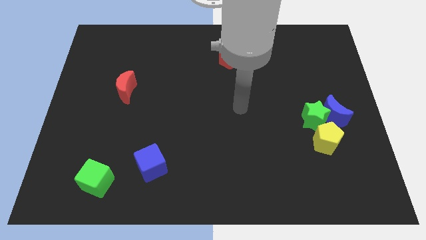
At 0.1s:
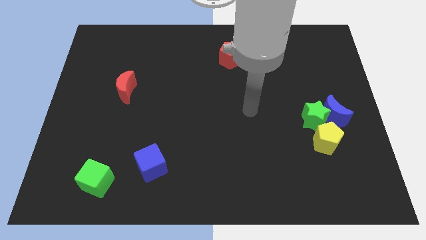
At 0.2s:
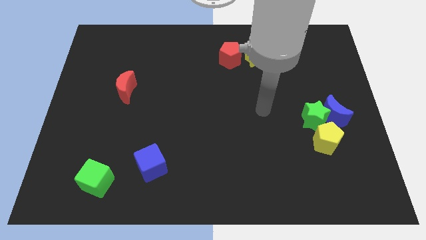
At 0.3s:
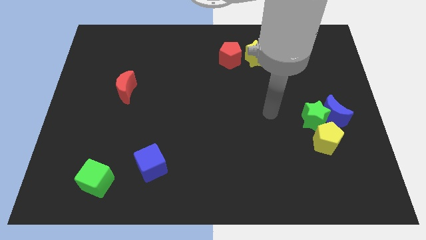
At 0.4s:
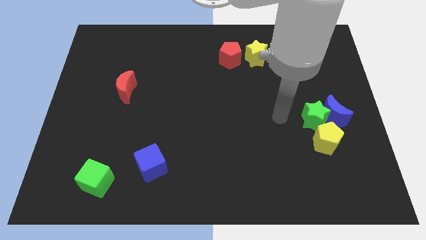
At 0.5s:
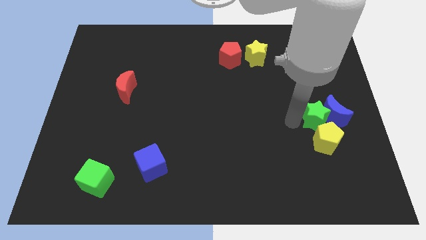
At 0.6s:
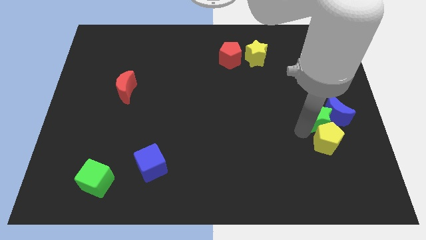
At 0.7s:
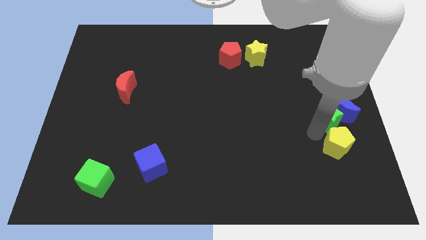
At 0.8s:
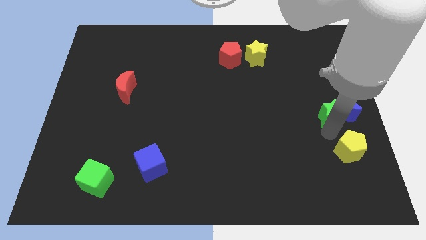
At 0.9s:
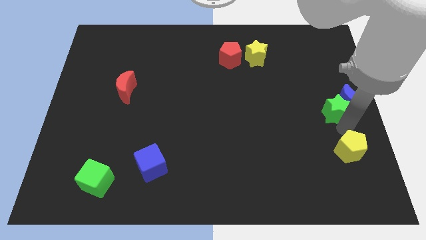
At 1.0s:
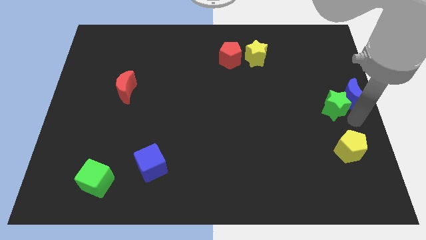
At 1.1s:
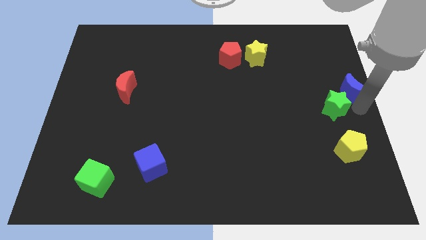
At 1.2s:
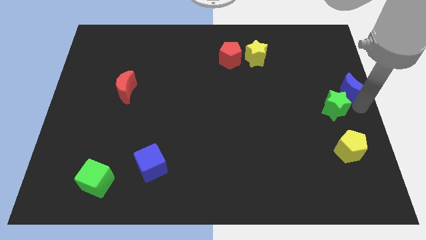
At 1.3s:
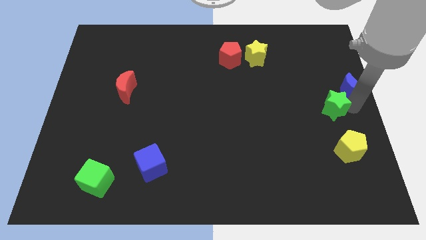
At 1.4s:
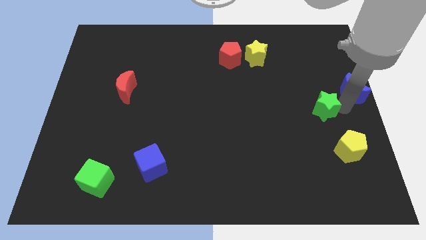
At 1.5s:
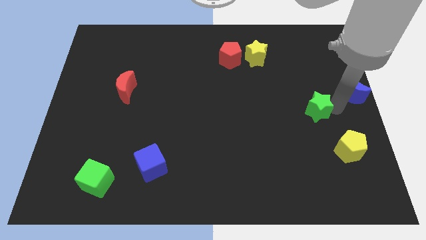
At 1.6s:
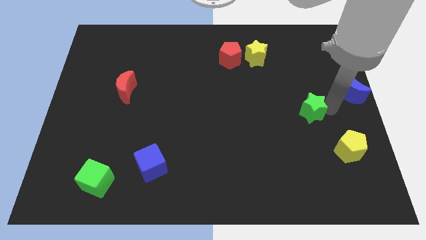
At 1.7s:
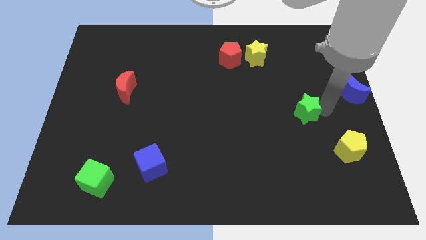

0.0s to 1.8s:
pull the green star apart from the blue moon and yellow pentagon

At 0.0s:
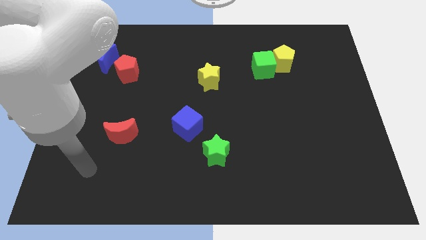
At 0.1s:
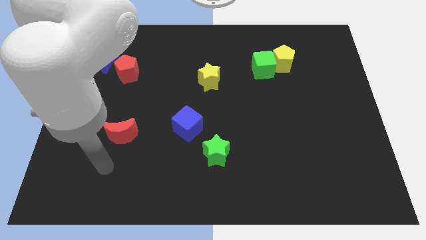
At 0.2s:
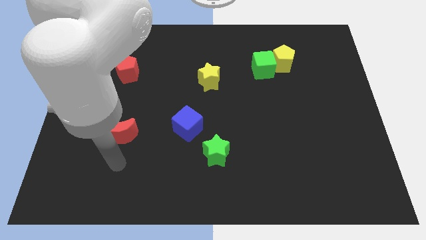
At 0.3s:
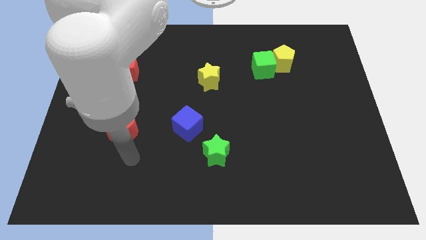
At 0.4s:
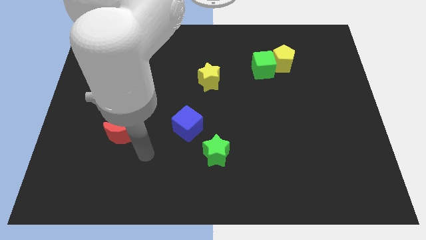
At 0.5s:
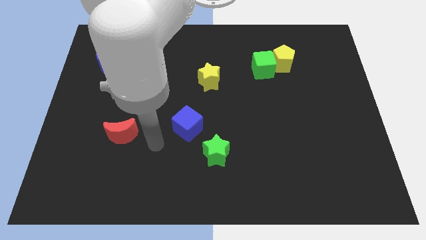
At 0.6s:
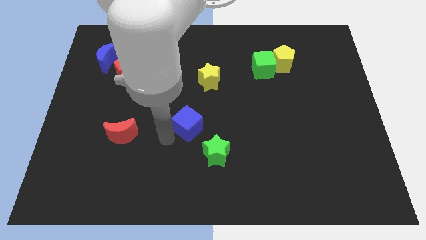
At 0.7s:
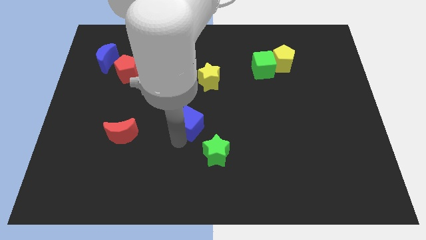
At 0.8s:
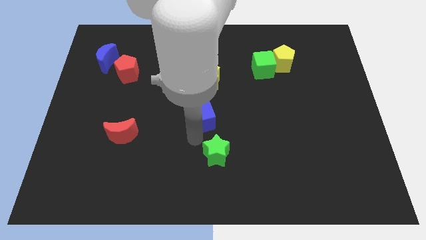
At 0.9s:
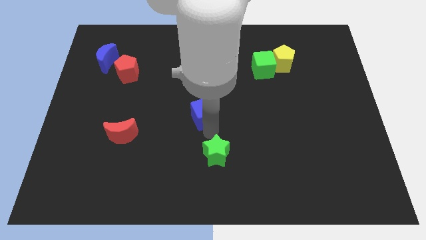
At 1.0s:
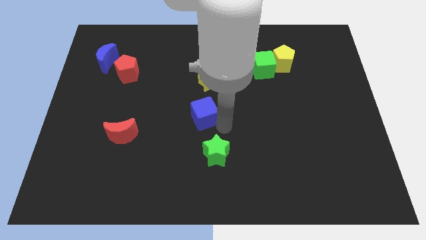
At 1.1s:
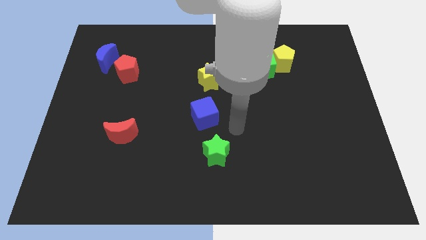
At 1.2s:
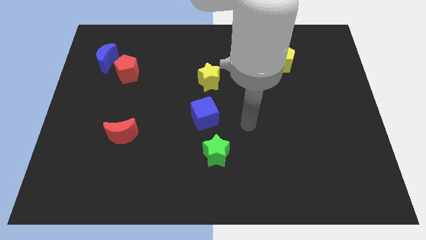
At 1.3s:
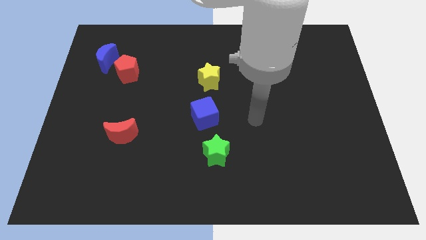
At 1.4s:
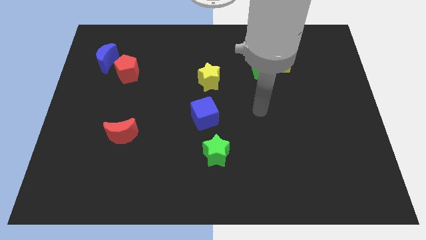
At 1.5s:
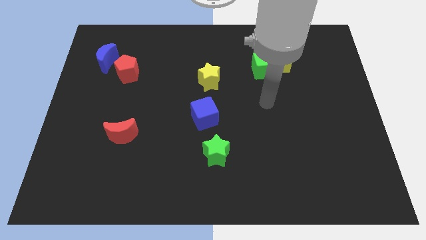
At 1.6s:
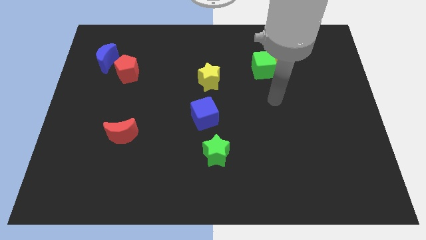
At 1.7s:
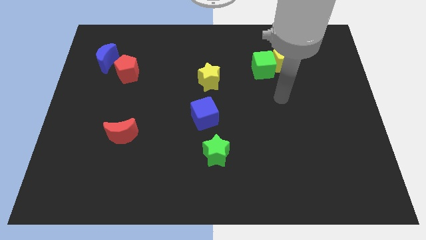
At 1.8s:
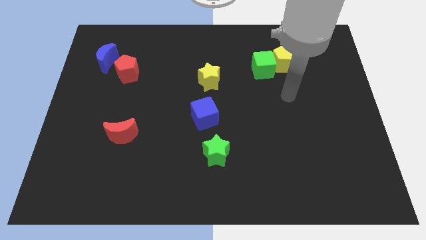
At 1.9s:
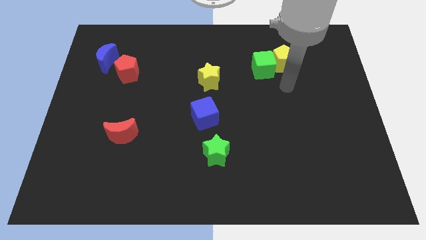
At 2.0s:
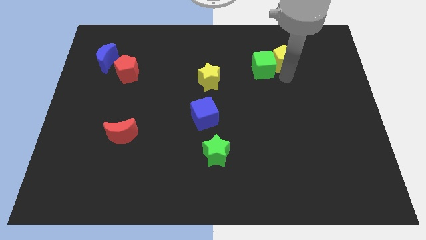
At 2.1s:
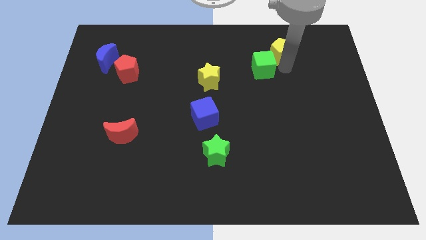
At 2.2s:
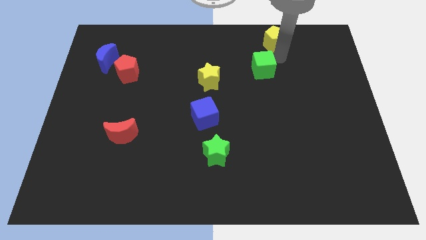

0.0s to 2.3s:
separate the green cube from the yellow pentagon

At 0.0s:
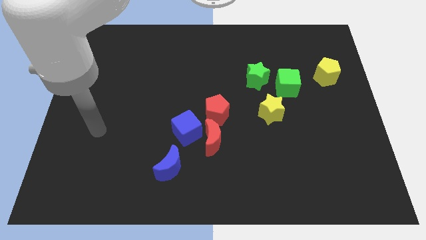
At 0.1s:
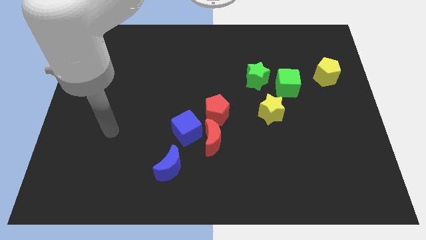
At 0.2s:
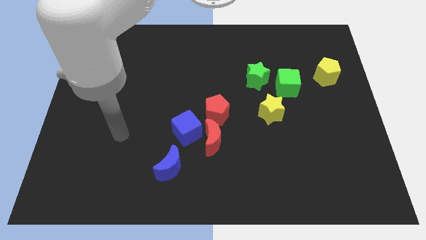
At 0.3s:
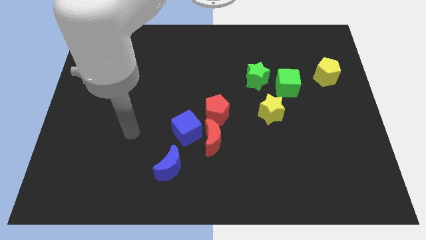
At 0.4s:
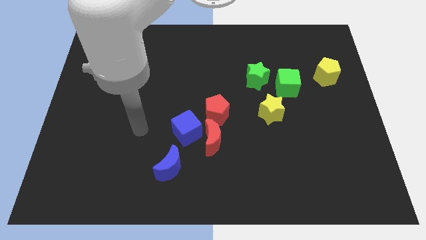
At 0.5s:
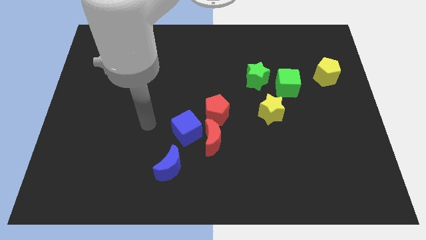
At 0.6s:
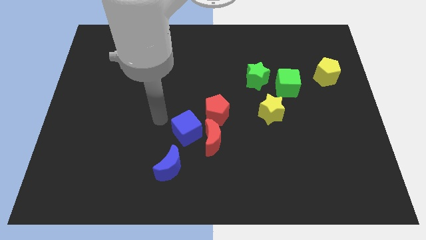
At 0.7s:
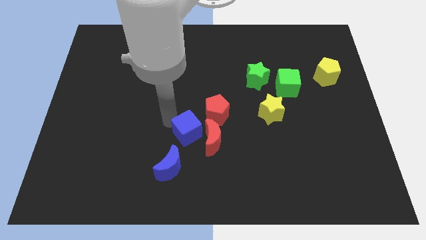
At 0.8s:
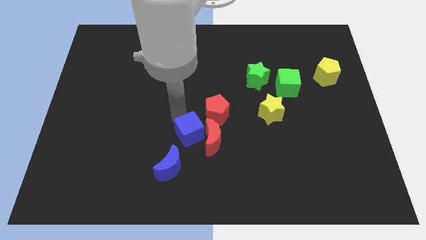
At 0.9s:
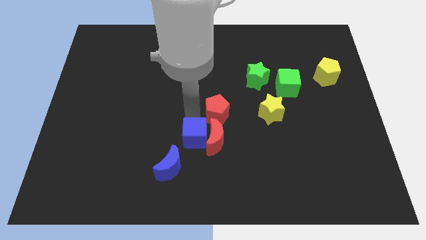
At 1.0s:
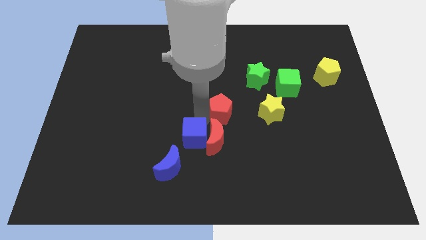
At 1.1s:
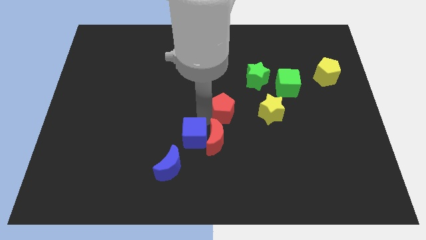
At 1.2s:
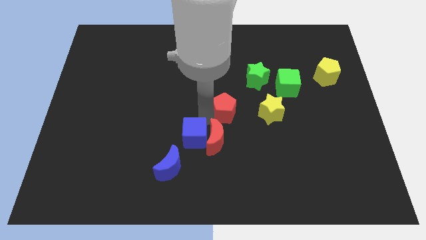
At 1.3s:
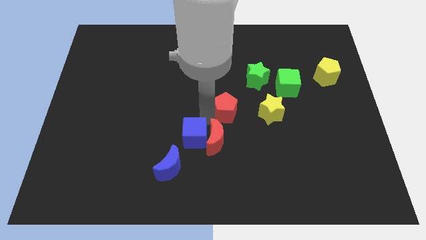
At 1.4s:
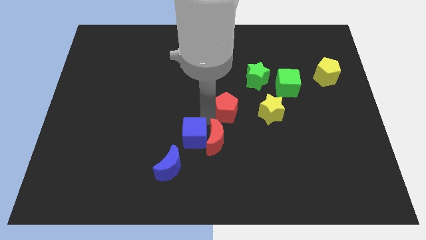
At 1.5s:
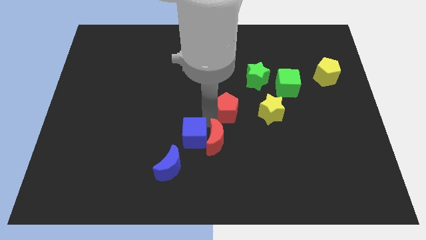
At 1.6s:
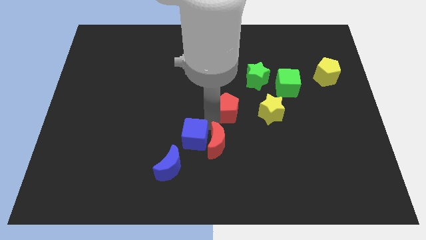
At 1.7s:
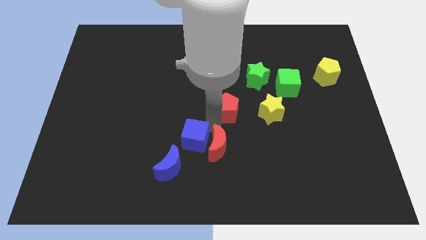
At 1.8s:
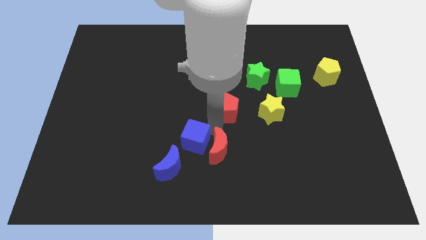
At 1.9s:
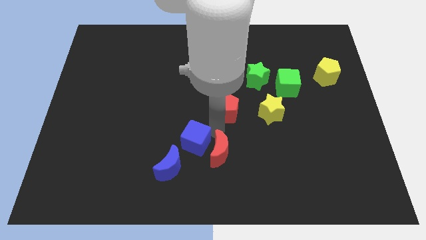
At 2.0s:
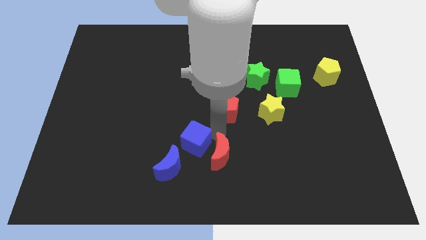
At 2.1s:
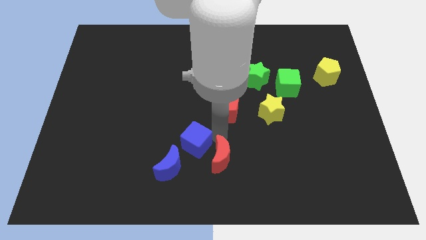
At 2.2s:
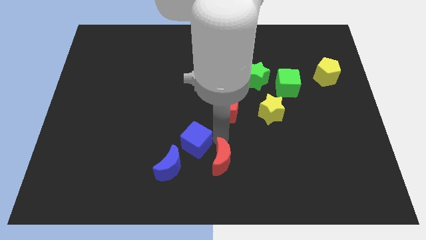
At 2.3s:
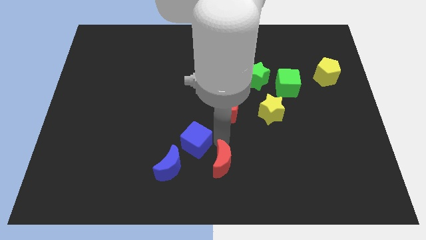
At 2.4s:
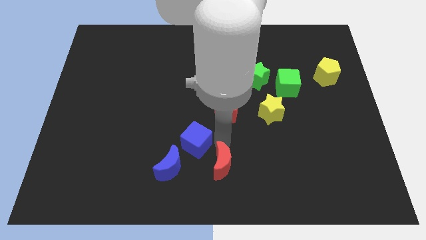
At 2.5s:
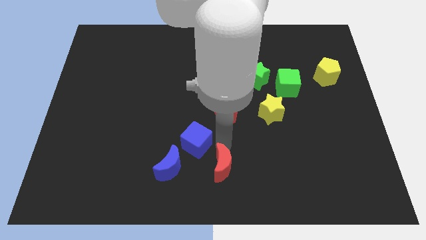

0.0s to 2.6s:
move the red moon away from the blue cube and red pentagon

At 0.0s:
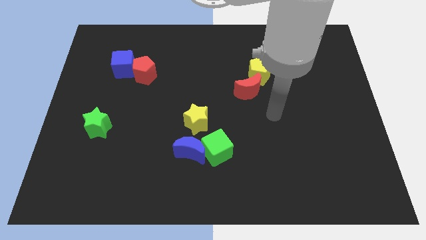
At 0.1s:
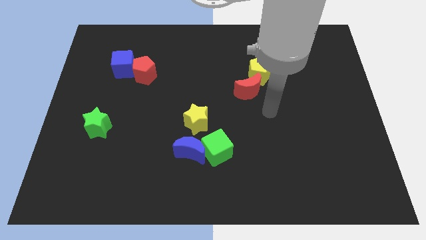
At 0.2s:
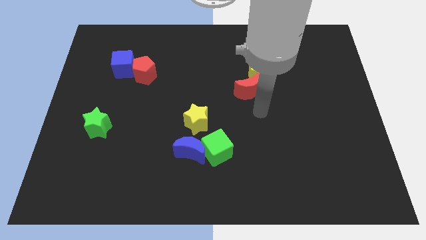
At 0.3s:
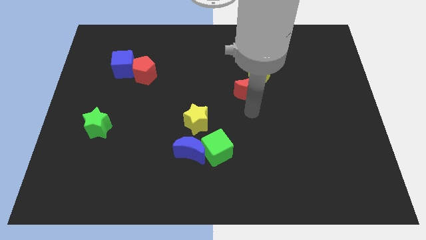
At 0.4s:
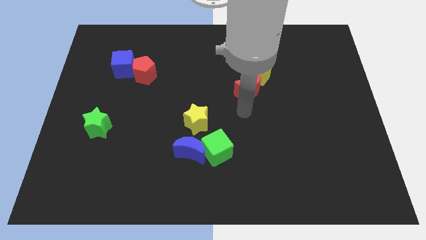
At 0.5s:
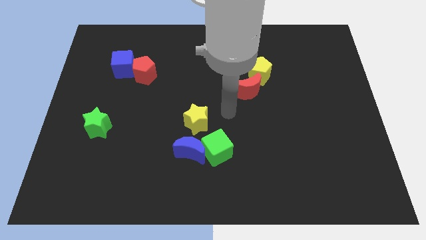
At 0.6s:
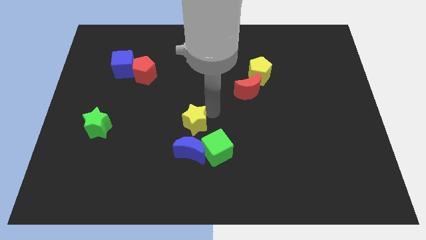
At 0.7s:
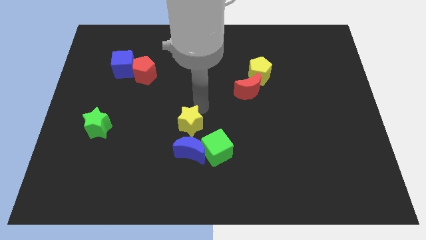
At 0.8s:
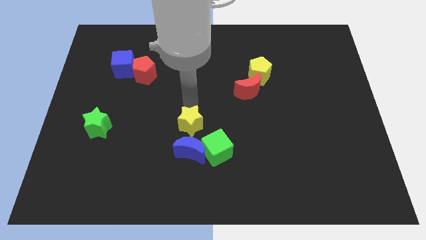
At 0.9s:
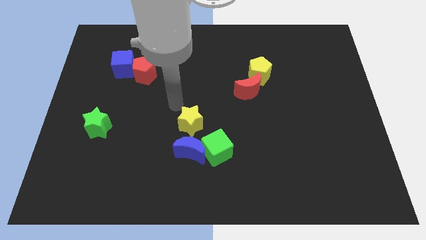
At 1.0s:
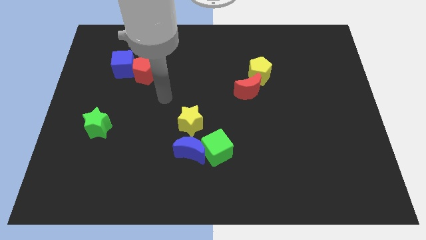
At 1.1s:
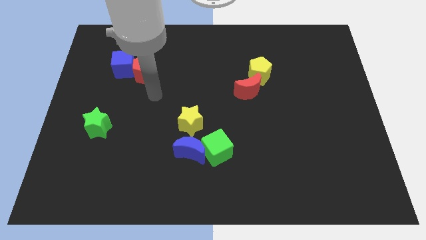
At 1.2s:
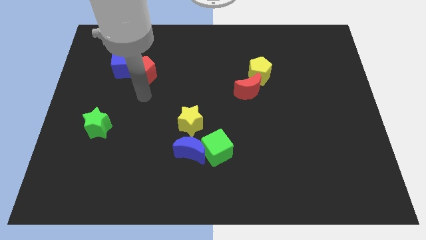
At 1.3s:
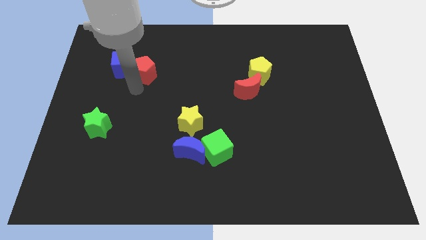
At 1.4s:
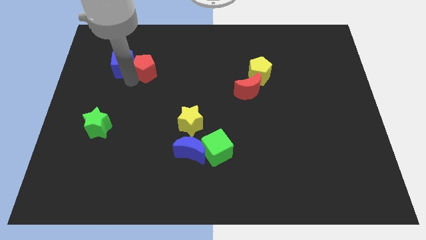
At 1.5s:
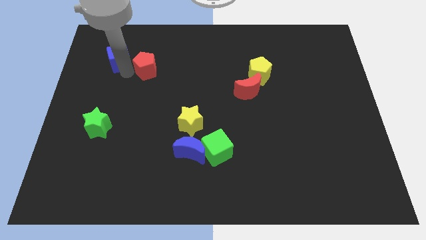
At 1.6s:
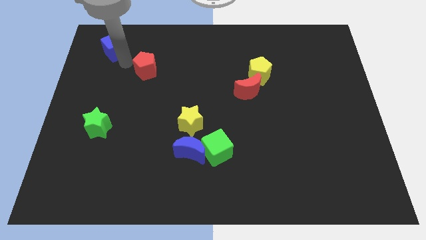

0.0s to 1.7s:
move the red pentagon away from the blue cube

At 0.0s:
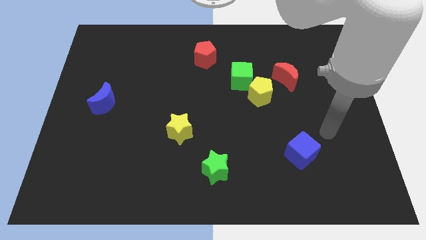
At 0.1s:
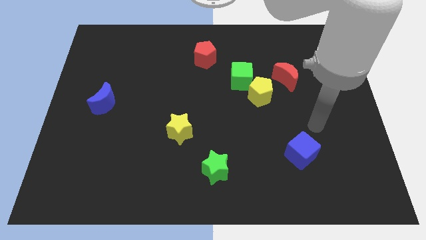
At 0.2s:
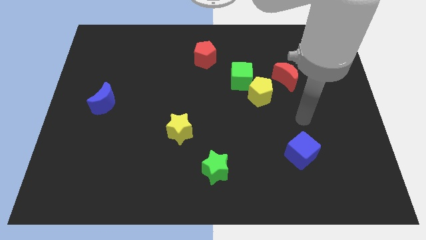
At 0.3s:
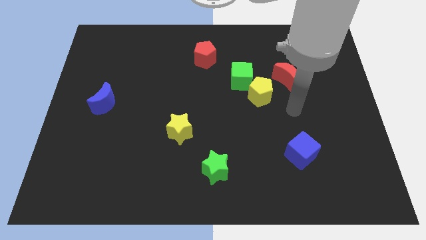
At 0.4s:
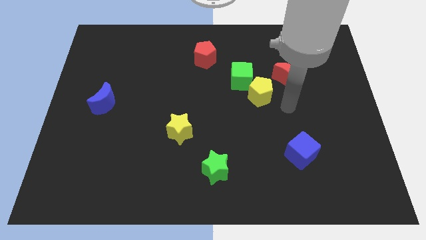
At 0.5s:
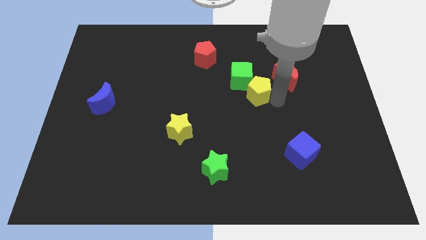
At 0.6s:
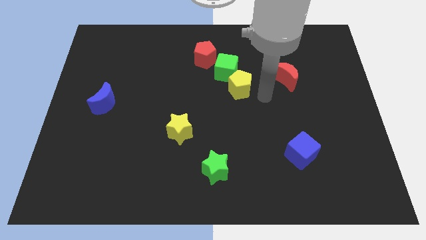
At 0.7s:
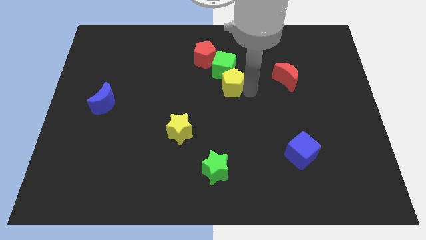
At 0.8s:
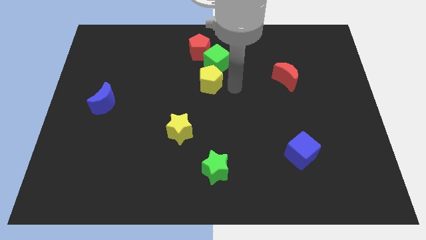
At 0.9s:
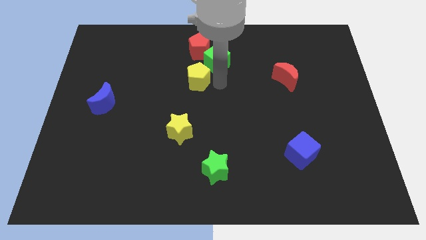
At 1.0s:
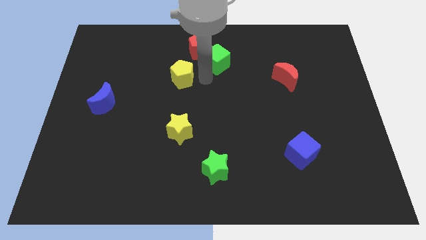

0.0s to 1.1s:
pull the green cube apart from the yellow pentagon
